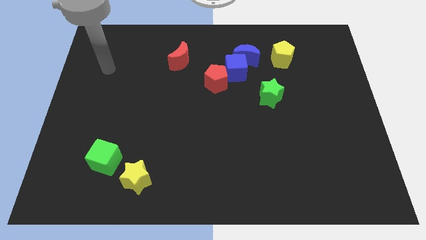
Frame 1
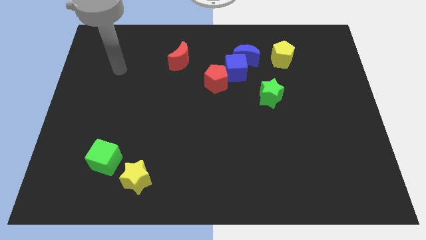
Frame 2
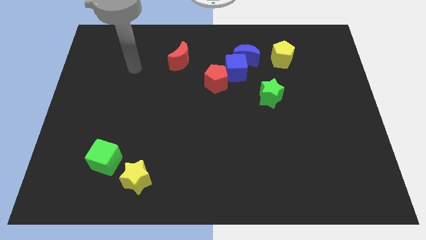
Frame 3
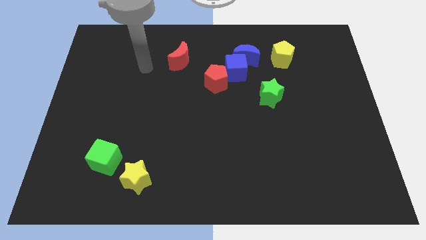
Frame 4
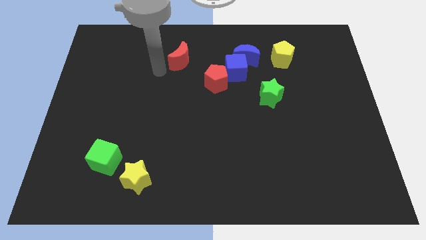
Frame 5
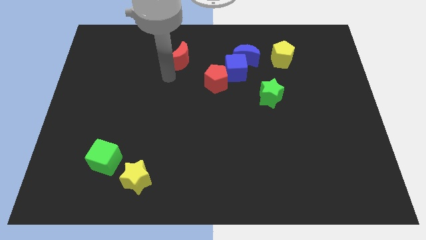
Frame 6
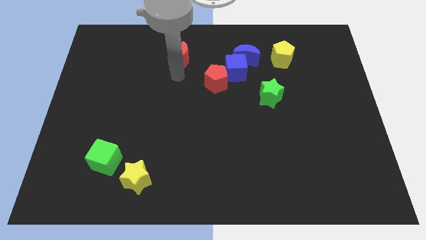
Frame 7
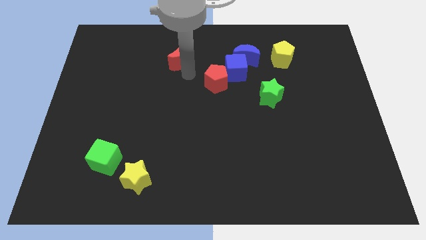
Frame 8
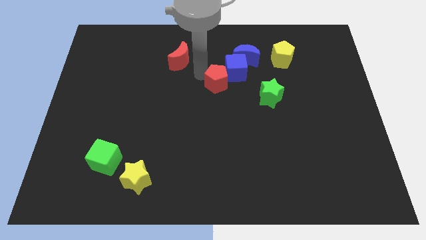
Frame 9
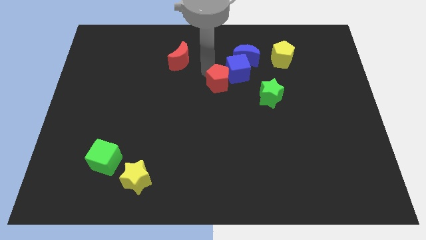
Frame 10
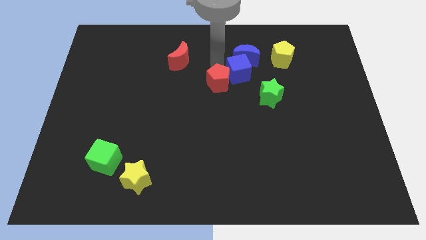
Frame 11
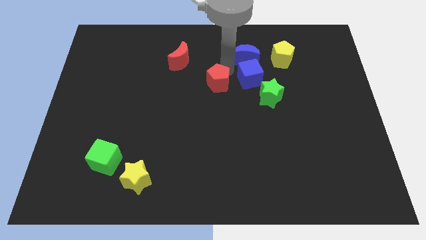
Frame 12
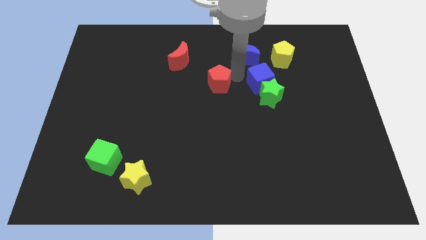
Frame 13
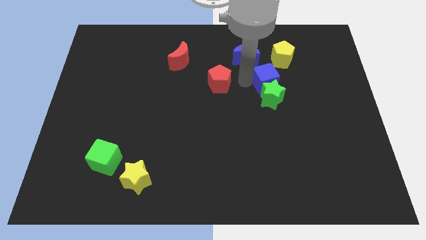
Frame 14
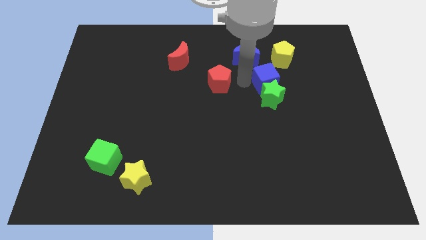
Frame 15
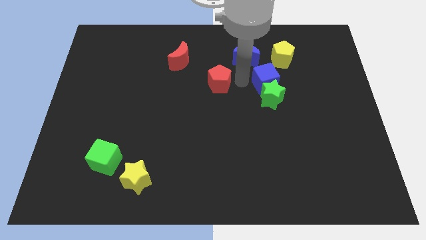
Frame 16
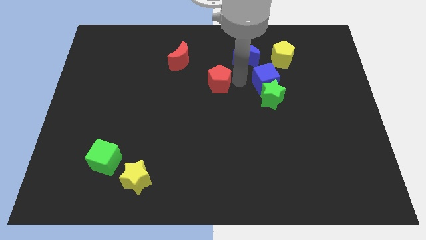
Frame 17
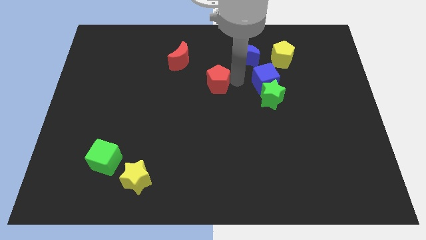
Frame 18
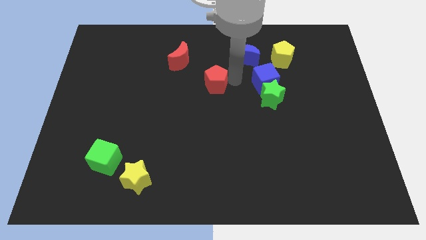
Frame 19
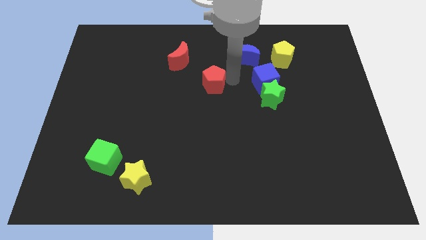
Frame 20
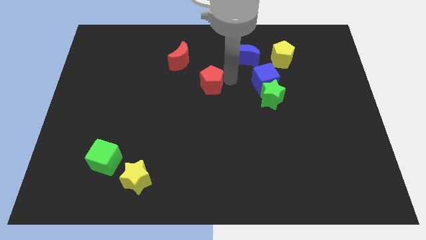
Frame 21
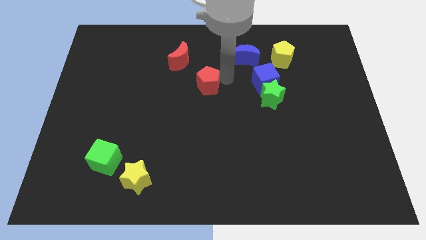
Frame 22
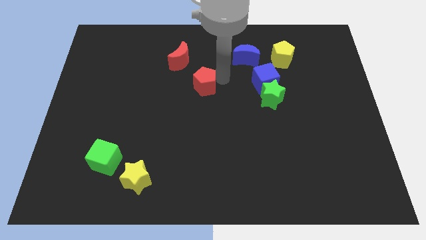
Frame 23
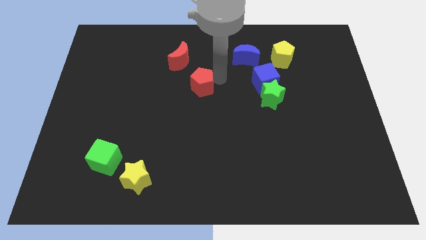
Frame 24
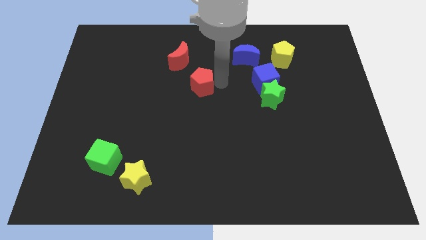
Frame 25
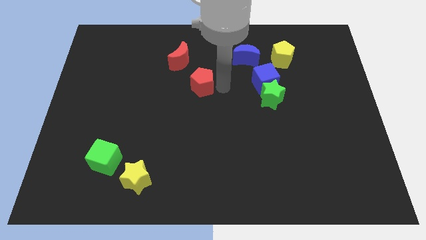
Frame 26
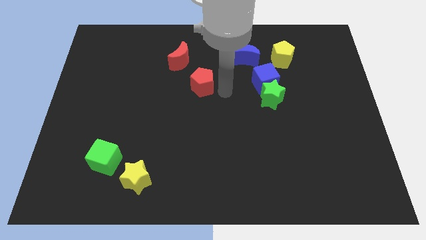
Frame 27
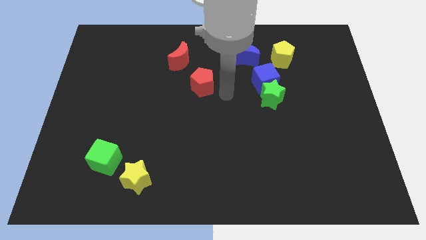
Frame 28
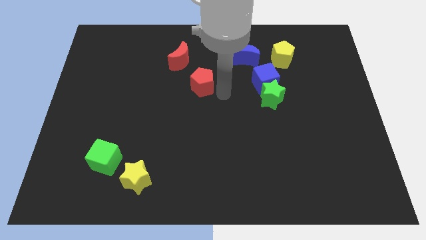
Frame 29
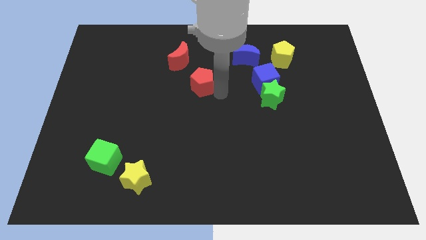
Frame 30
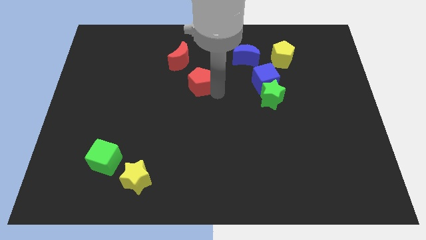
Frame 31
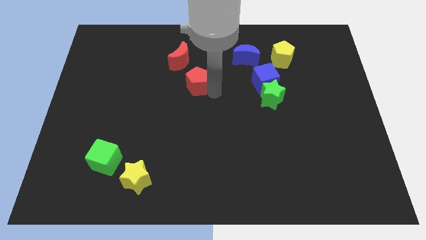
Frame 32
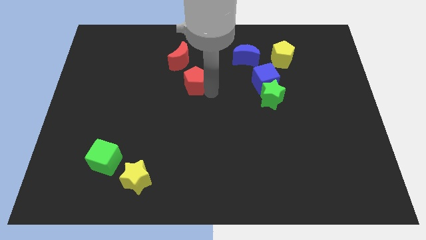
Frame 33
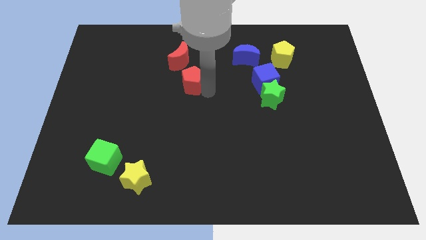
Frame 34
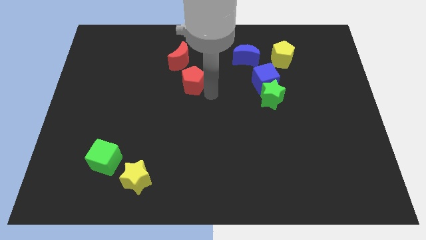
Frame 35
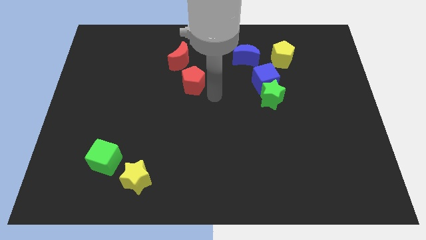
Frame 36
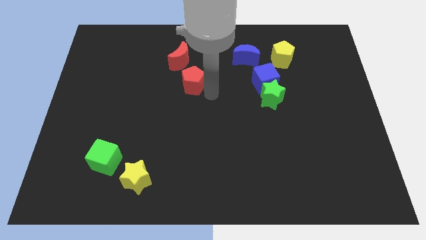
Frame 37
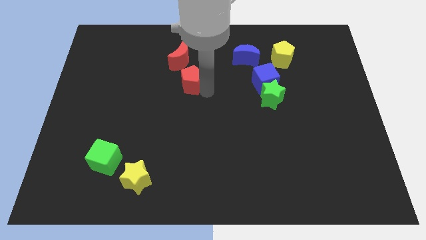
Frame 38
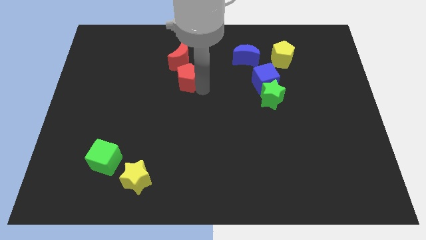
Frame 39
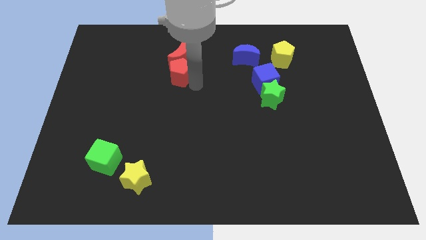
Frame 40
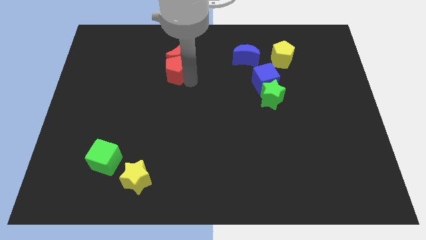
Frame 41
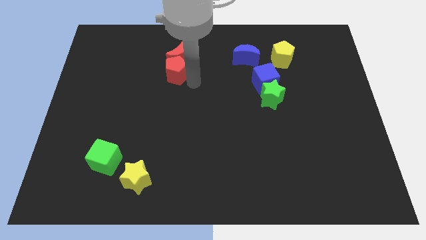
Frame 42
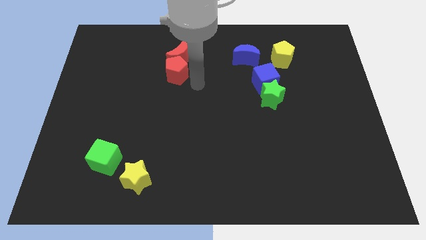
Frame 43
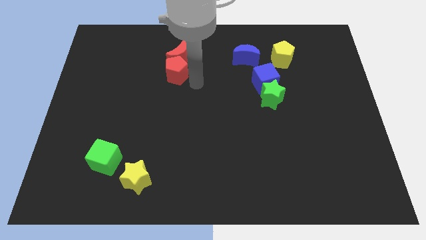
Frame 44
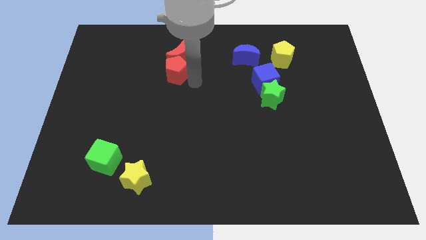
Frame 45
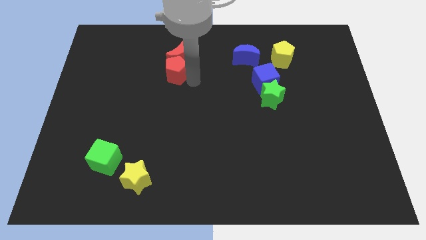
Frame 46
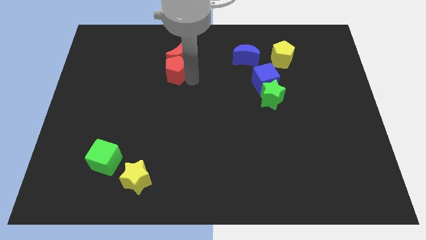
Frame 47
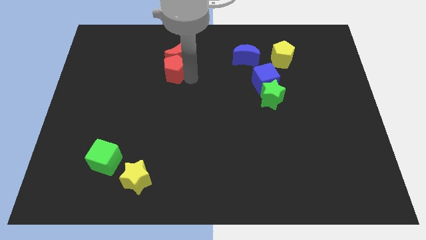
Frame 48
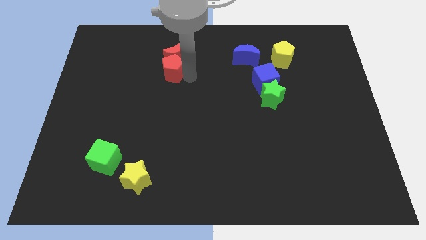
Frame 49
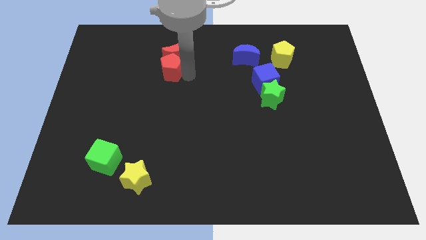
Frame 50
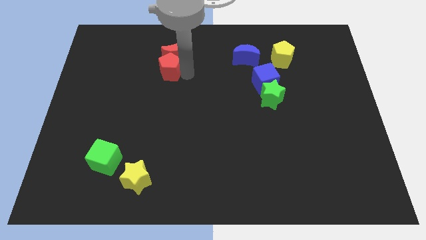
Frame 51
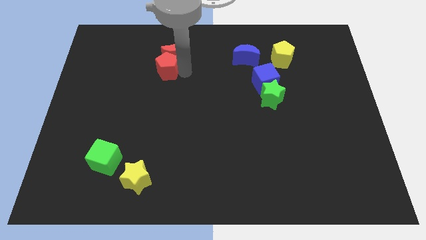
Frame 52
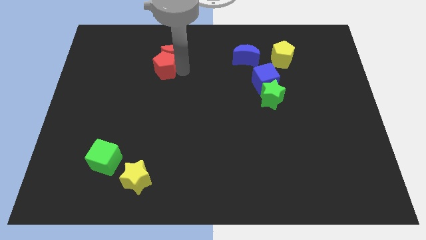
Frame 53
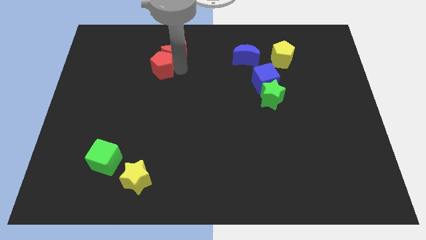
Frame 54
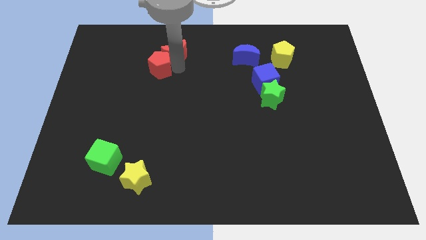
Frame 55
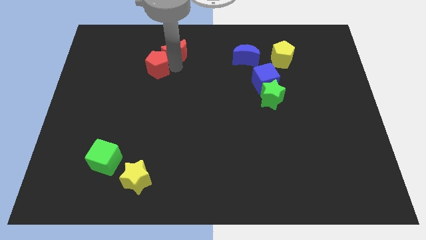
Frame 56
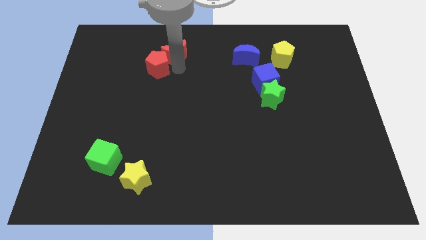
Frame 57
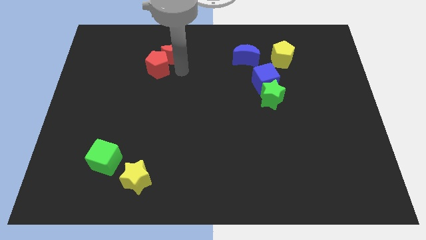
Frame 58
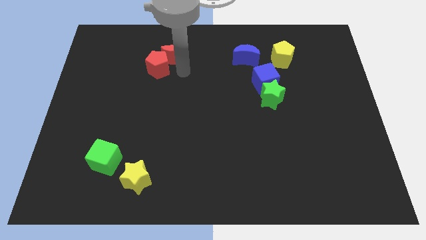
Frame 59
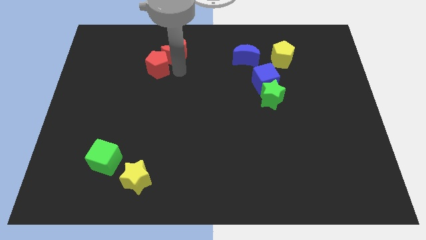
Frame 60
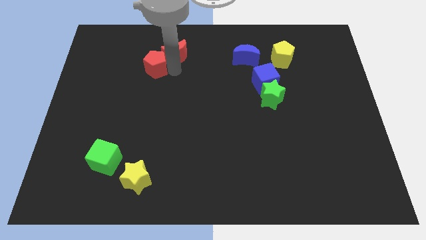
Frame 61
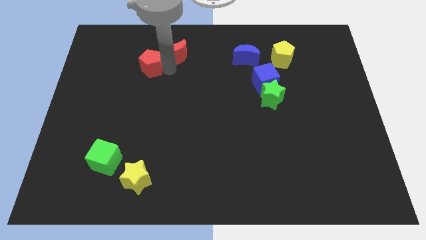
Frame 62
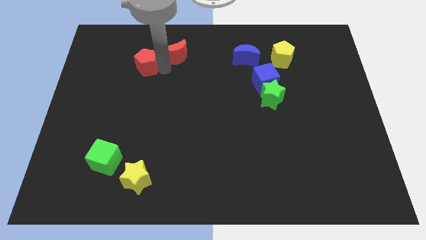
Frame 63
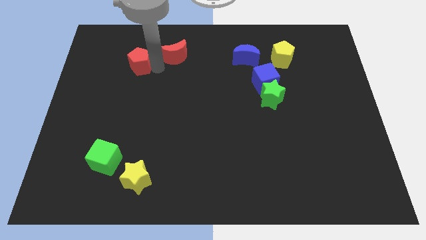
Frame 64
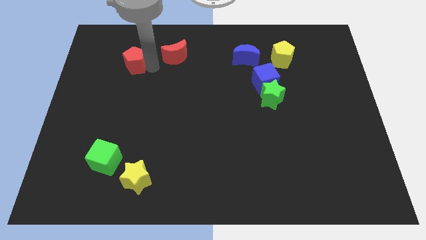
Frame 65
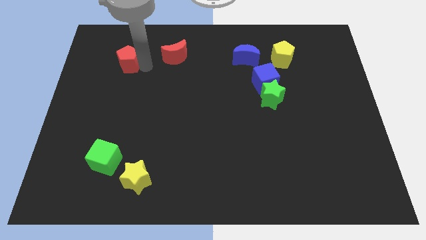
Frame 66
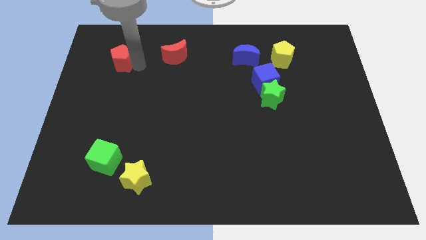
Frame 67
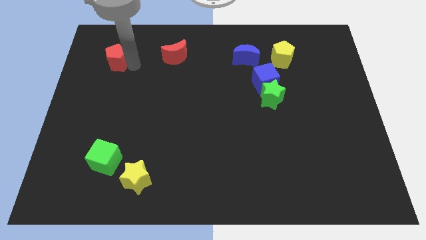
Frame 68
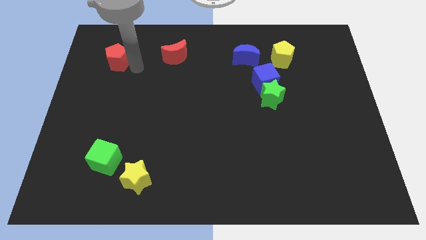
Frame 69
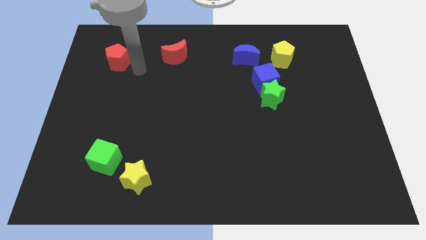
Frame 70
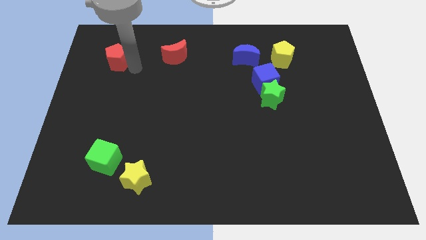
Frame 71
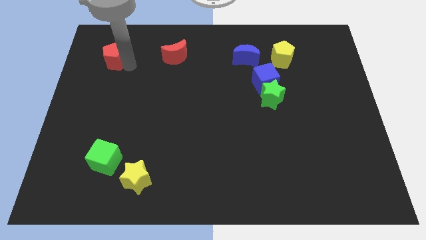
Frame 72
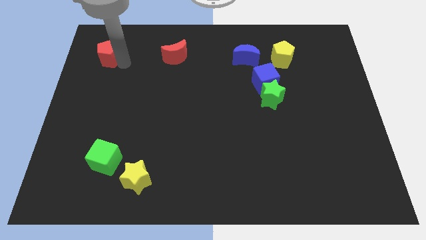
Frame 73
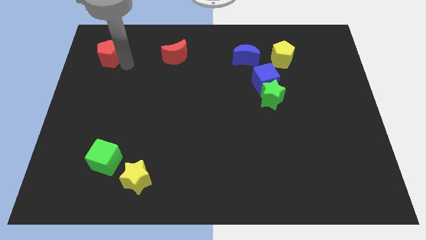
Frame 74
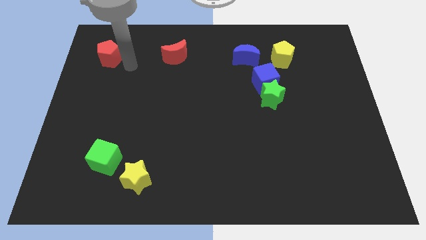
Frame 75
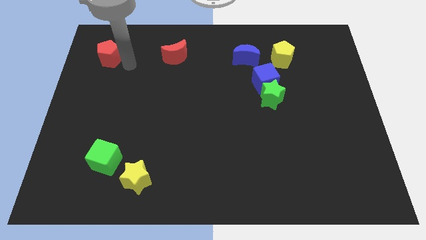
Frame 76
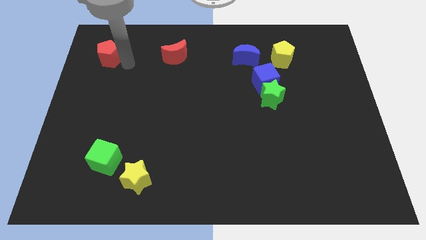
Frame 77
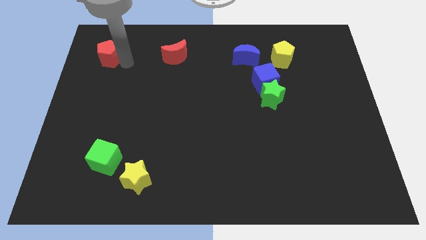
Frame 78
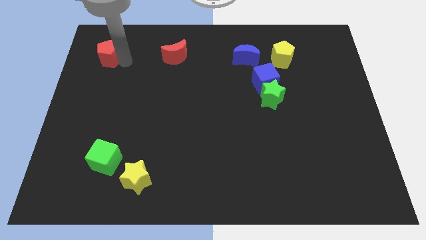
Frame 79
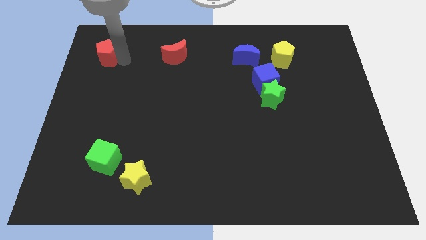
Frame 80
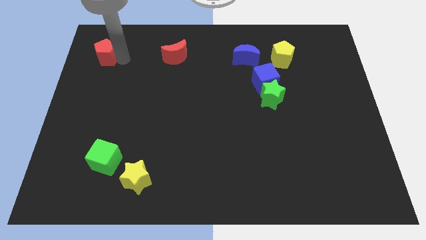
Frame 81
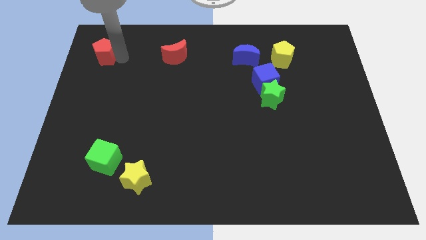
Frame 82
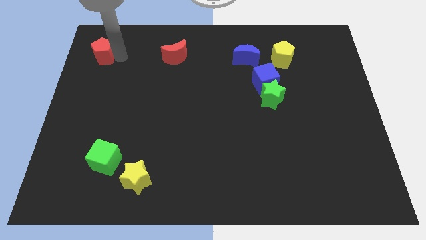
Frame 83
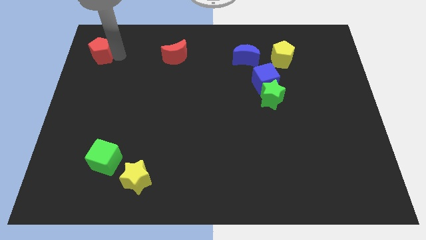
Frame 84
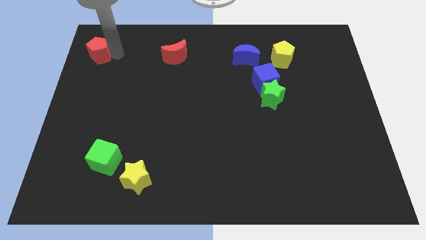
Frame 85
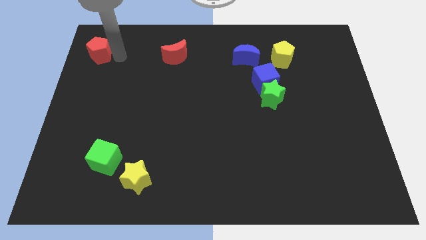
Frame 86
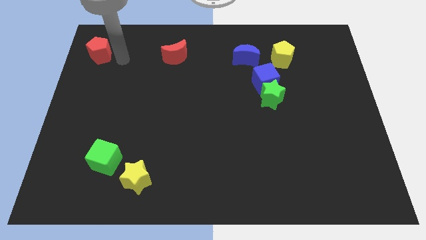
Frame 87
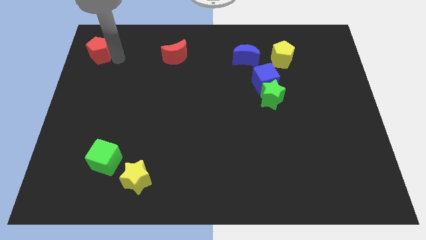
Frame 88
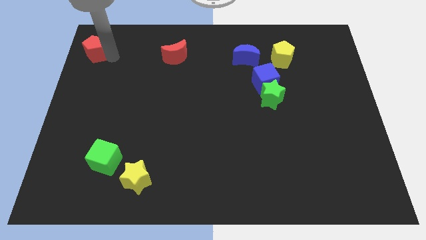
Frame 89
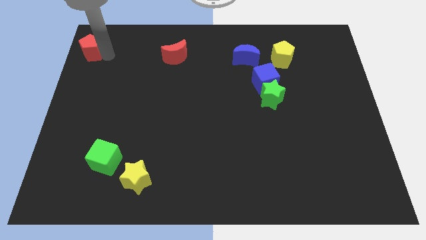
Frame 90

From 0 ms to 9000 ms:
push the red pentagon to the upper left corner
